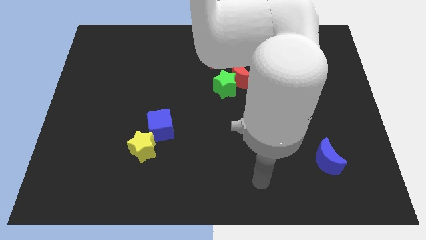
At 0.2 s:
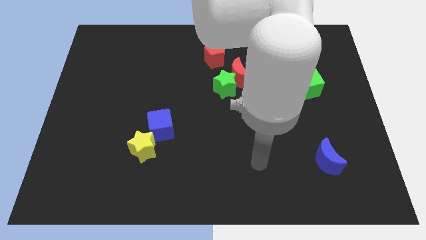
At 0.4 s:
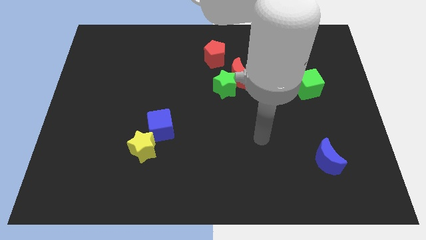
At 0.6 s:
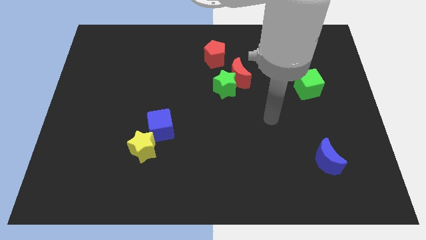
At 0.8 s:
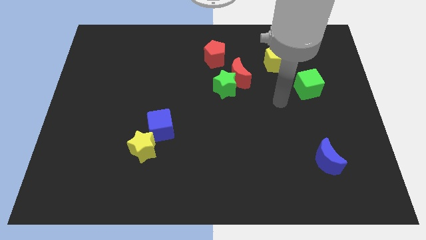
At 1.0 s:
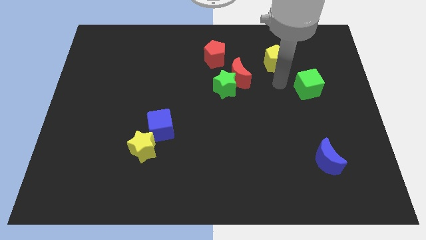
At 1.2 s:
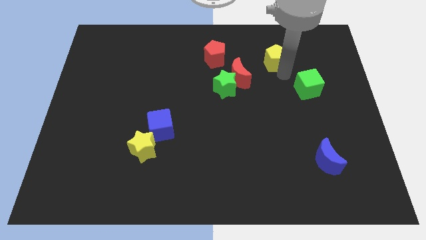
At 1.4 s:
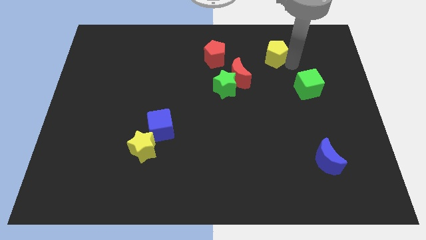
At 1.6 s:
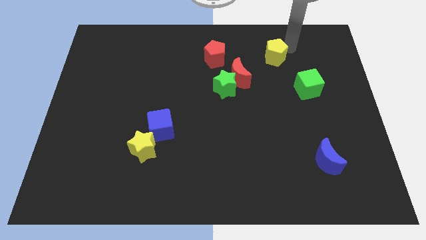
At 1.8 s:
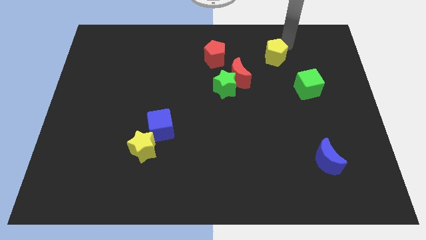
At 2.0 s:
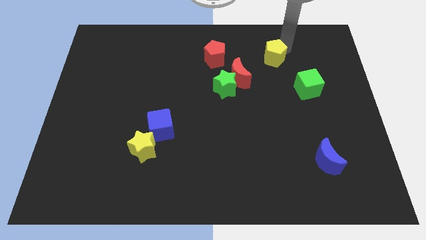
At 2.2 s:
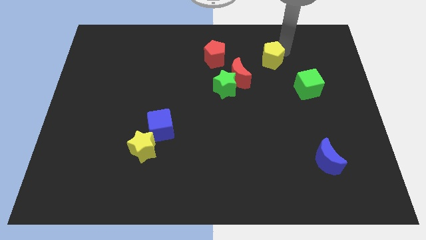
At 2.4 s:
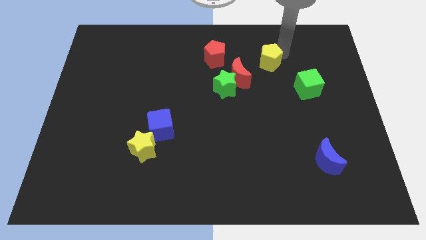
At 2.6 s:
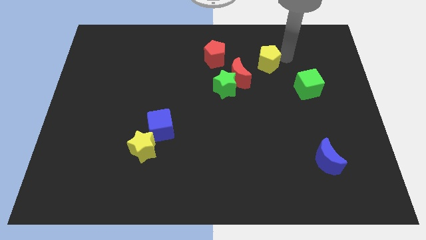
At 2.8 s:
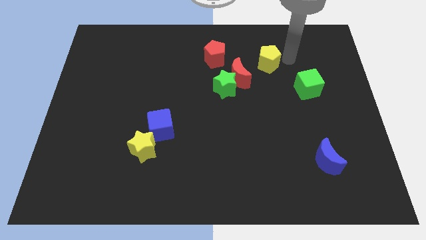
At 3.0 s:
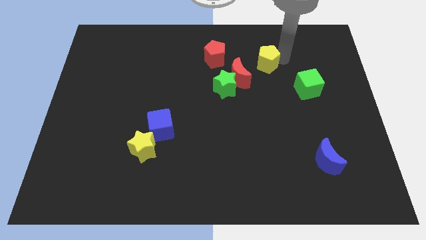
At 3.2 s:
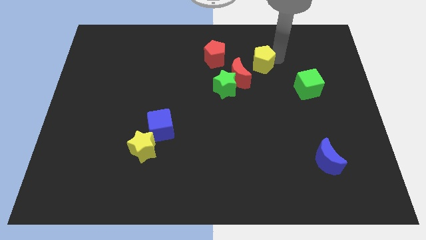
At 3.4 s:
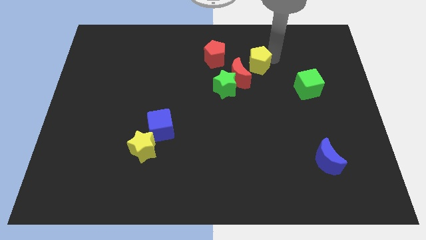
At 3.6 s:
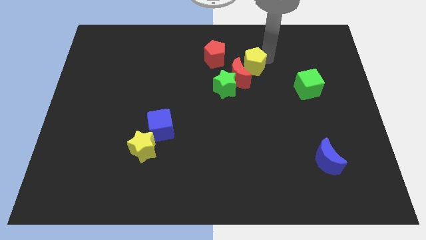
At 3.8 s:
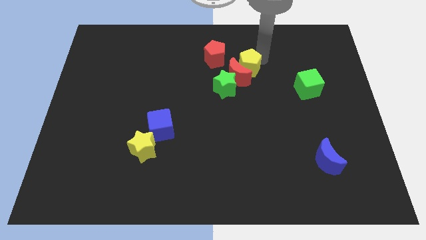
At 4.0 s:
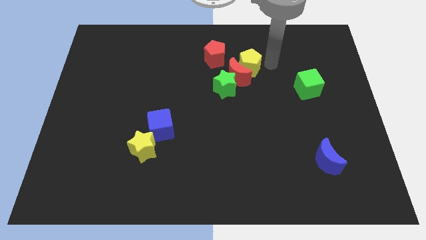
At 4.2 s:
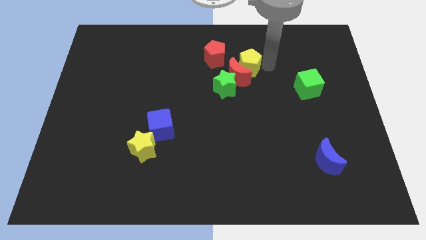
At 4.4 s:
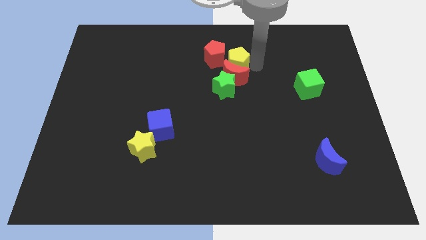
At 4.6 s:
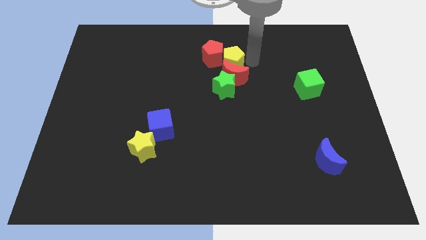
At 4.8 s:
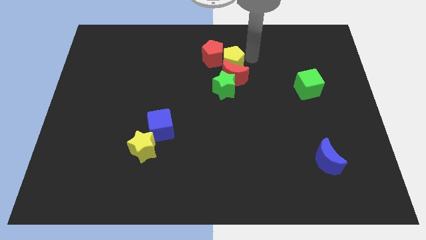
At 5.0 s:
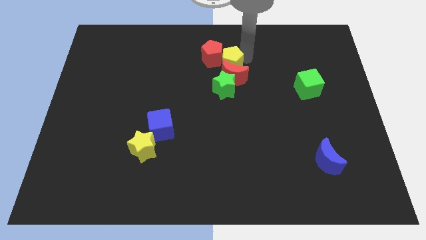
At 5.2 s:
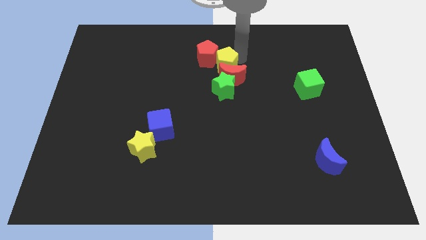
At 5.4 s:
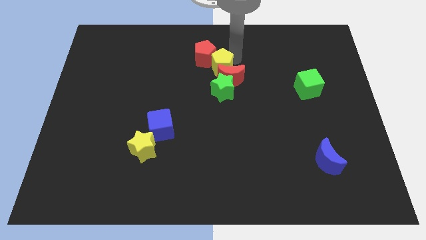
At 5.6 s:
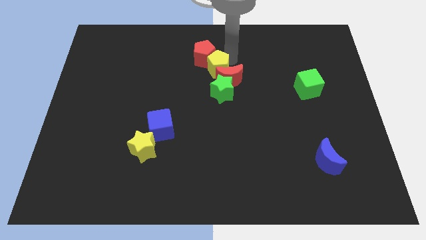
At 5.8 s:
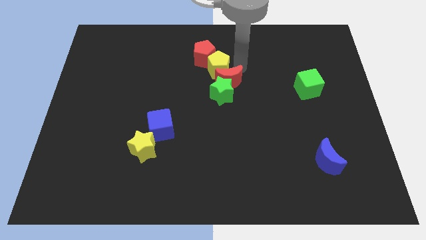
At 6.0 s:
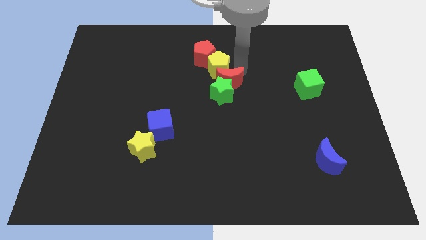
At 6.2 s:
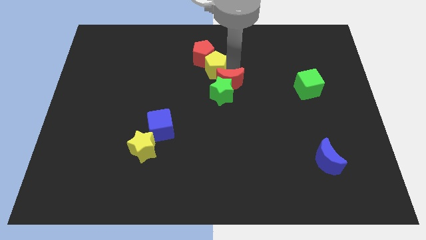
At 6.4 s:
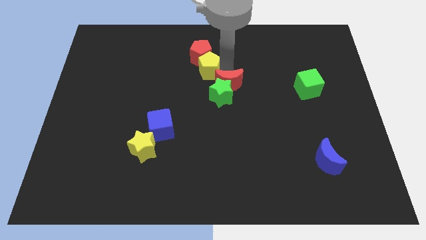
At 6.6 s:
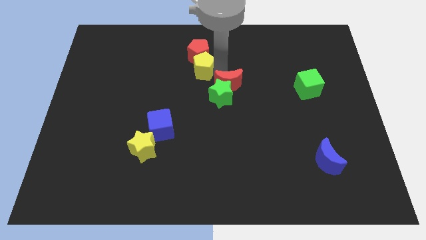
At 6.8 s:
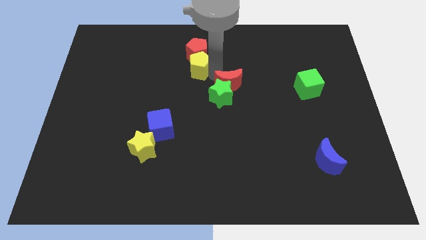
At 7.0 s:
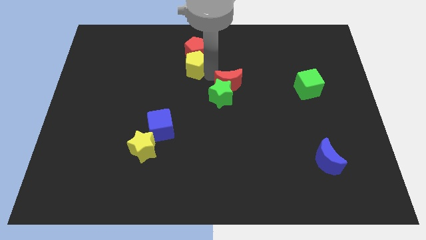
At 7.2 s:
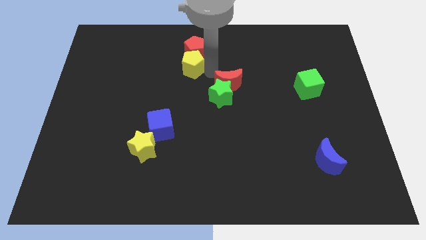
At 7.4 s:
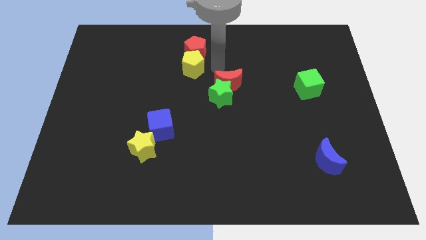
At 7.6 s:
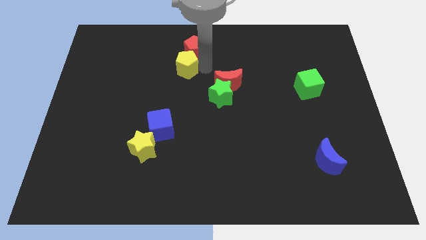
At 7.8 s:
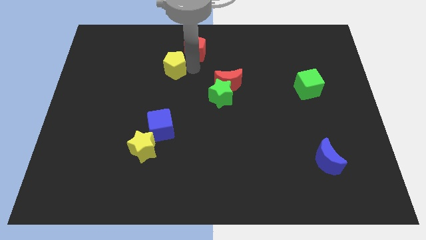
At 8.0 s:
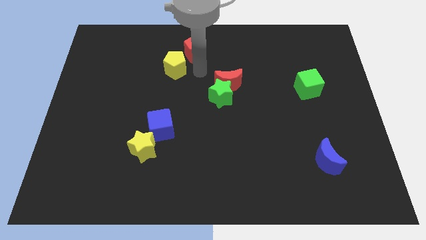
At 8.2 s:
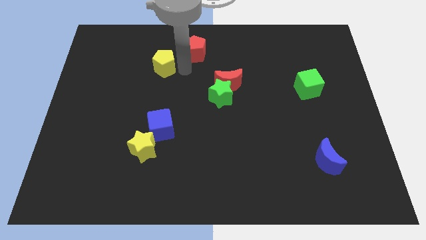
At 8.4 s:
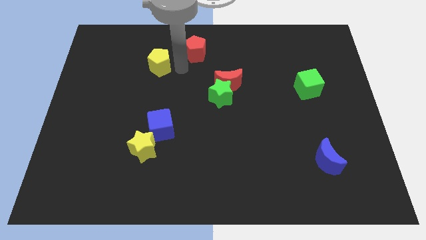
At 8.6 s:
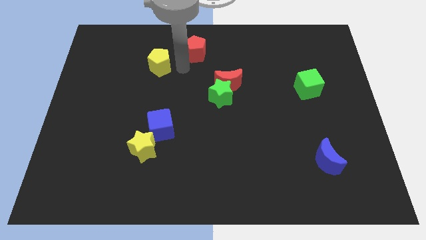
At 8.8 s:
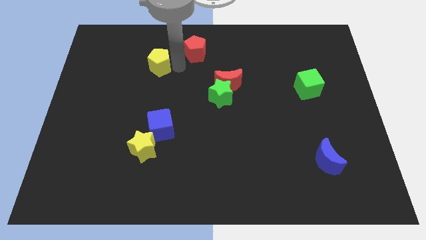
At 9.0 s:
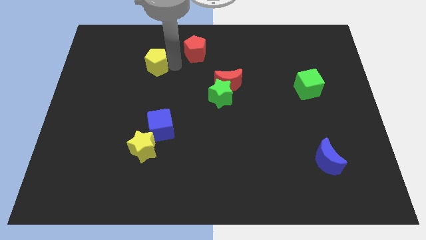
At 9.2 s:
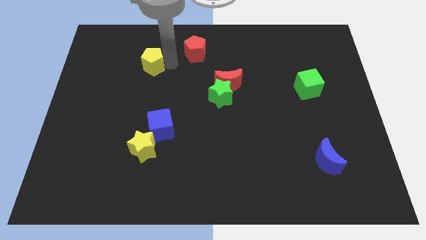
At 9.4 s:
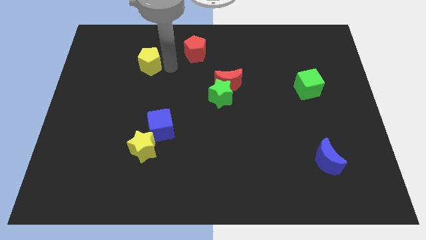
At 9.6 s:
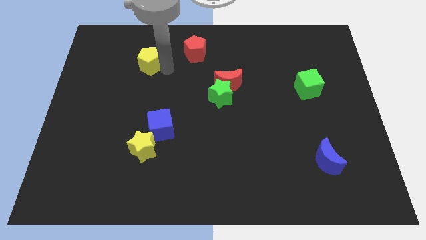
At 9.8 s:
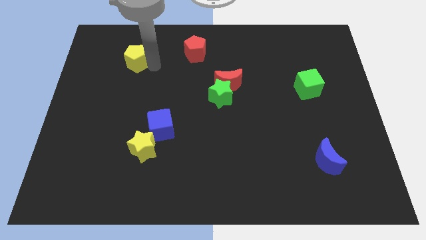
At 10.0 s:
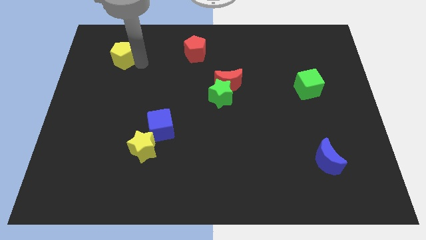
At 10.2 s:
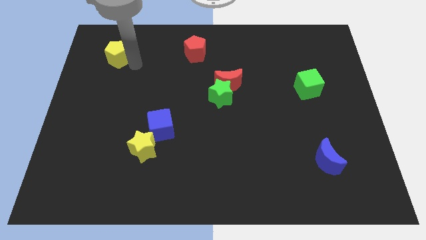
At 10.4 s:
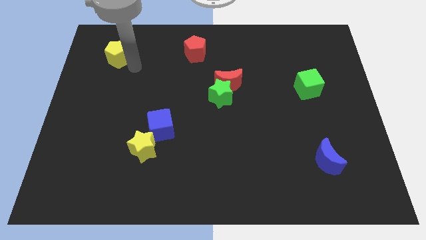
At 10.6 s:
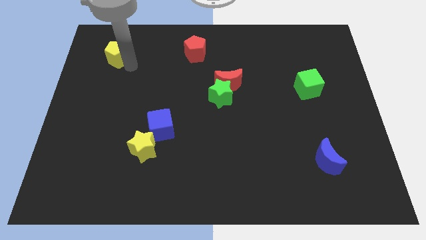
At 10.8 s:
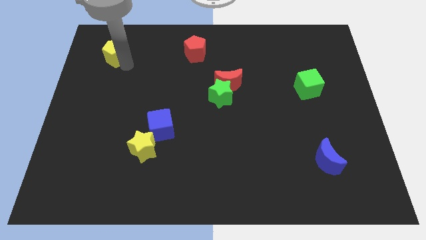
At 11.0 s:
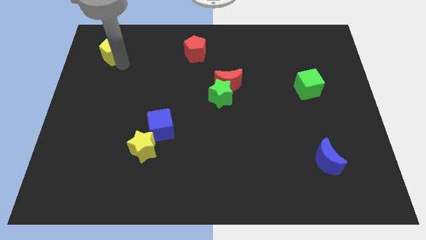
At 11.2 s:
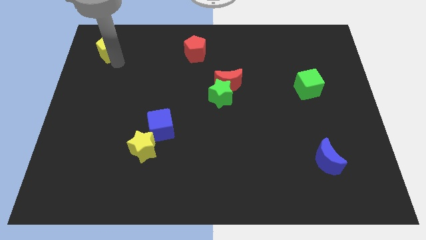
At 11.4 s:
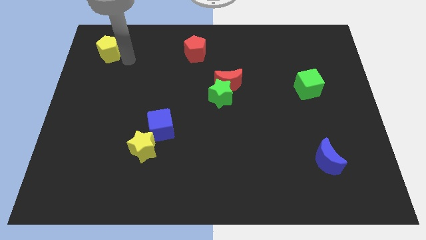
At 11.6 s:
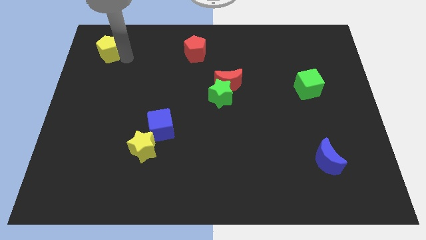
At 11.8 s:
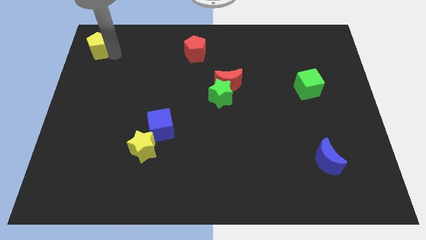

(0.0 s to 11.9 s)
move the yellow pentagon to the top left of the board
